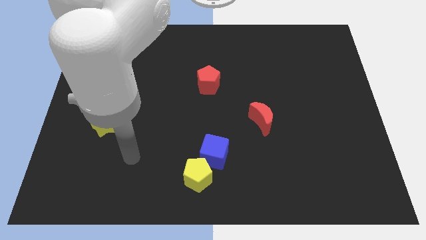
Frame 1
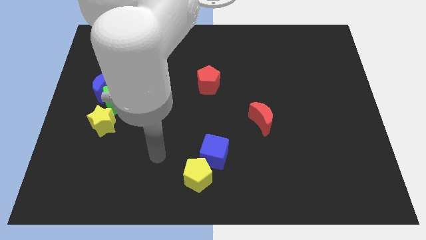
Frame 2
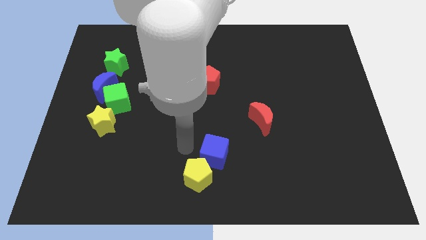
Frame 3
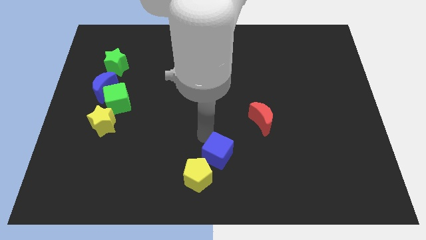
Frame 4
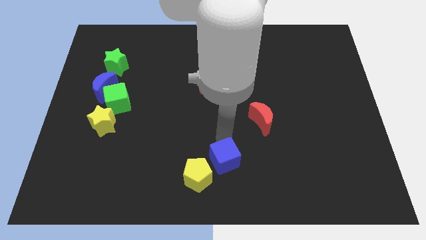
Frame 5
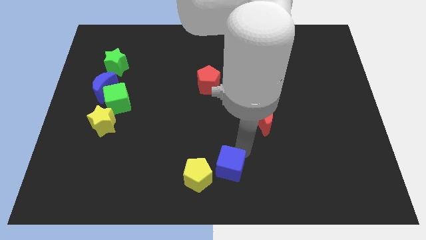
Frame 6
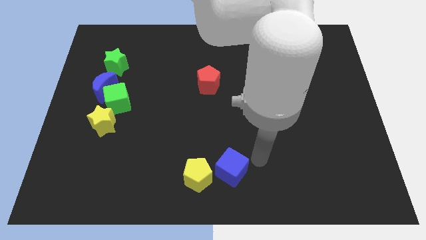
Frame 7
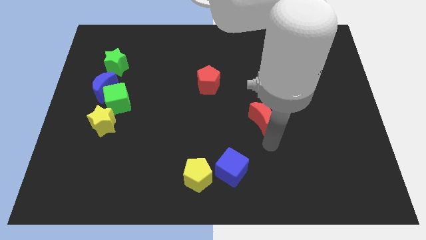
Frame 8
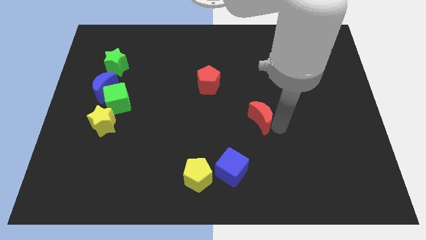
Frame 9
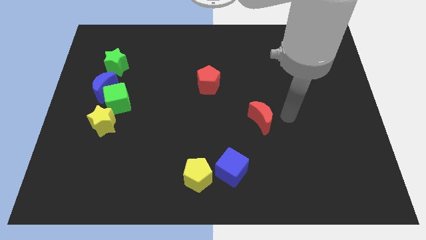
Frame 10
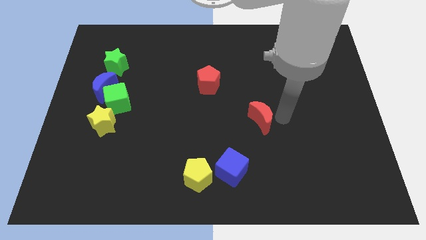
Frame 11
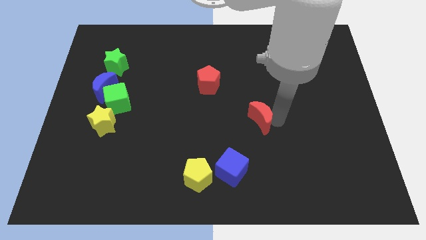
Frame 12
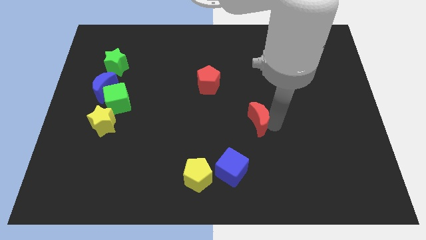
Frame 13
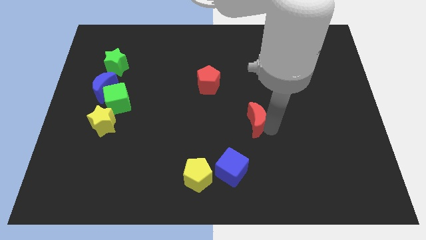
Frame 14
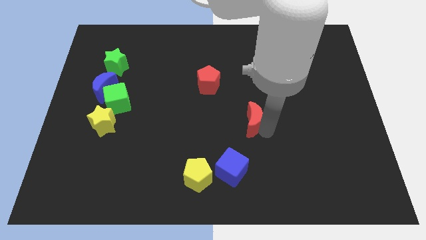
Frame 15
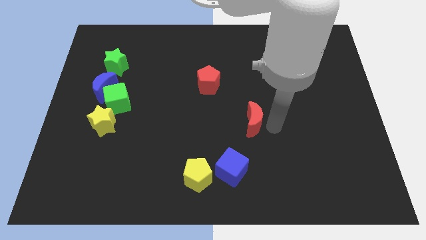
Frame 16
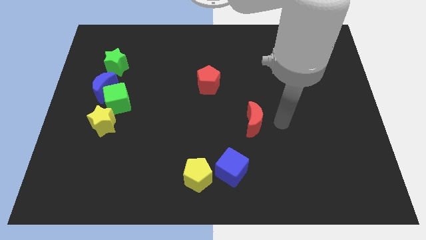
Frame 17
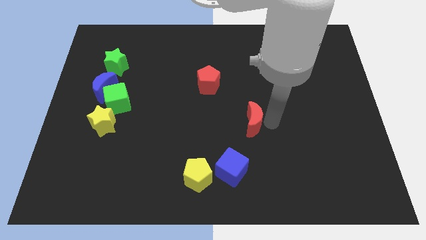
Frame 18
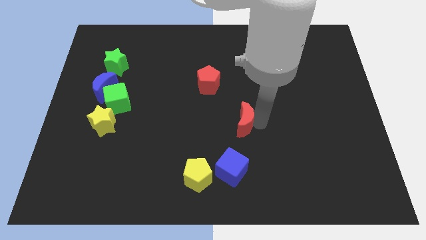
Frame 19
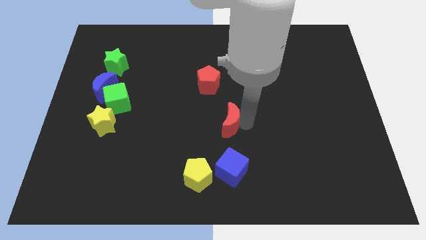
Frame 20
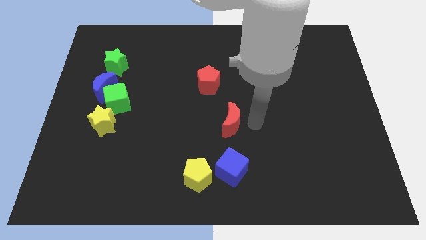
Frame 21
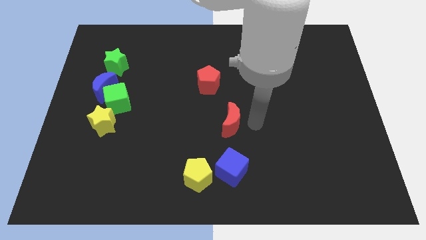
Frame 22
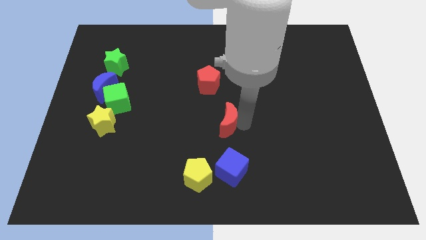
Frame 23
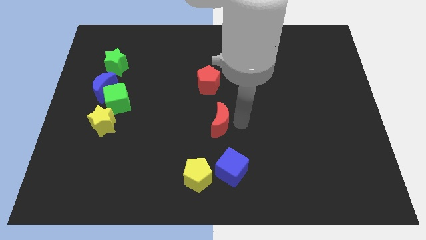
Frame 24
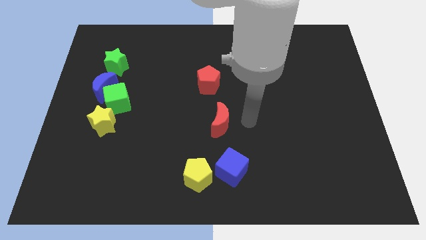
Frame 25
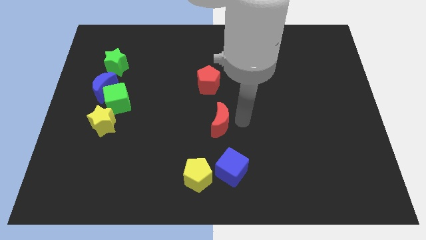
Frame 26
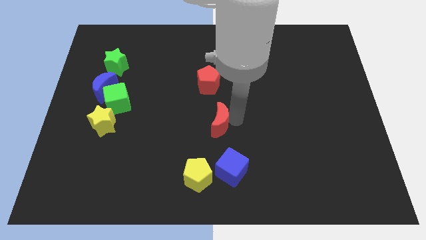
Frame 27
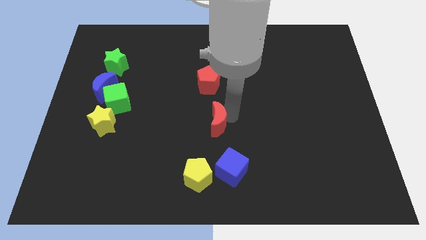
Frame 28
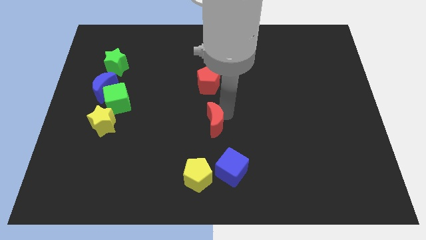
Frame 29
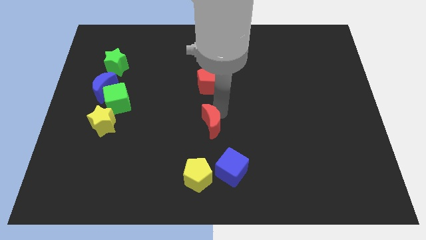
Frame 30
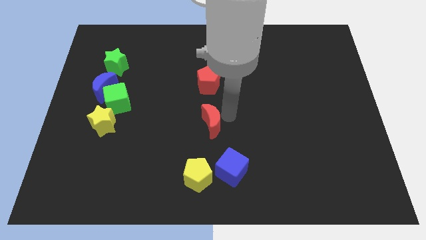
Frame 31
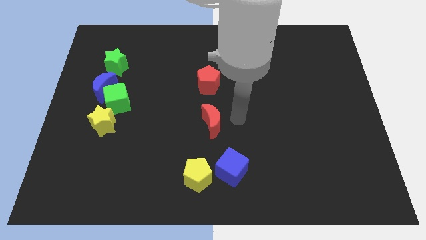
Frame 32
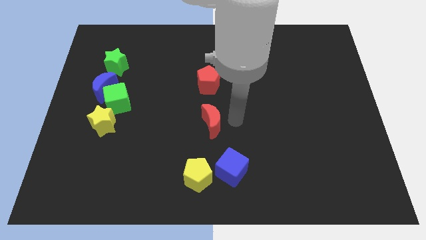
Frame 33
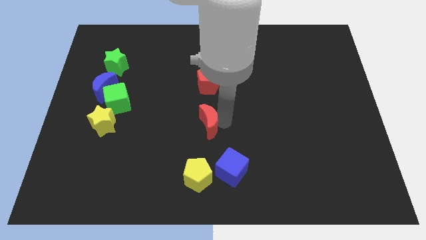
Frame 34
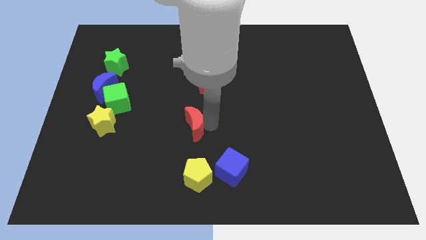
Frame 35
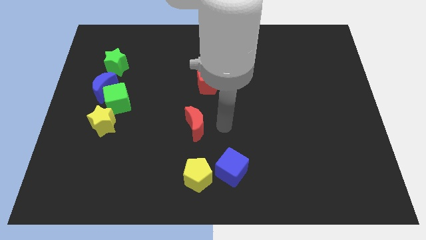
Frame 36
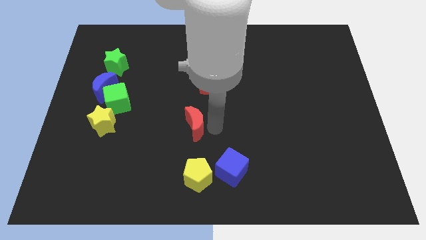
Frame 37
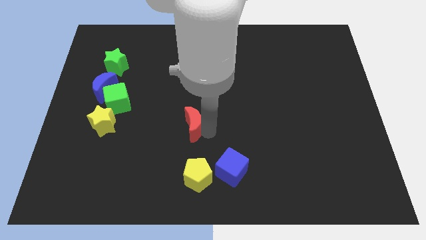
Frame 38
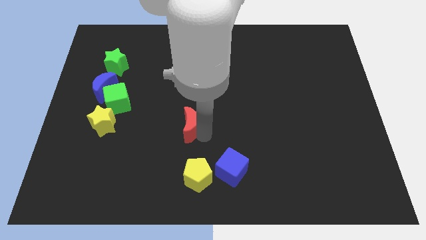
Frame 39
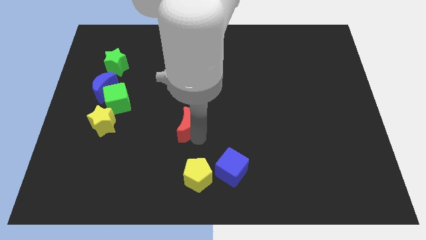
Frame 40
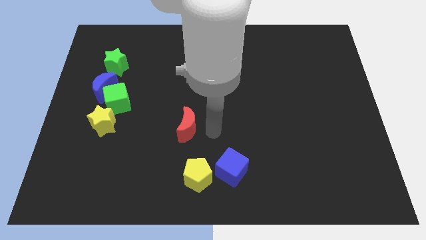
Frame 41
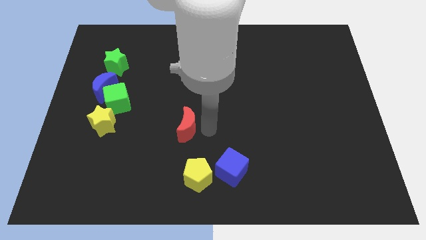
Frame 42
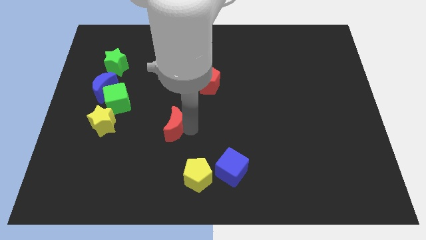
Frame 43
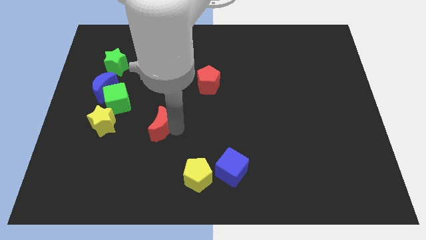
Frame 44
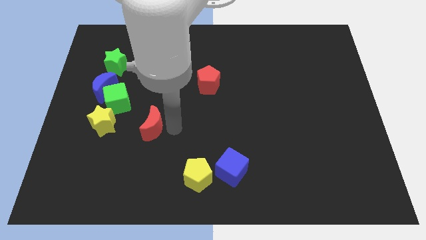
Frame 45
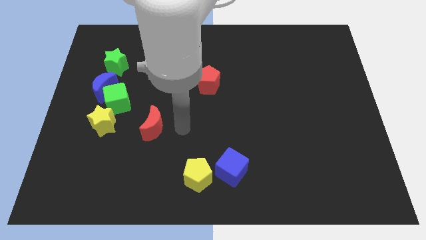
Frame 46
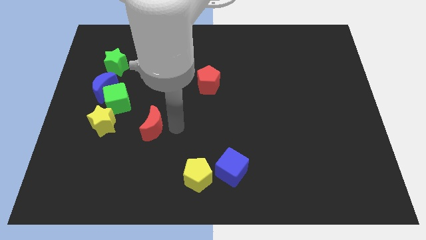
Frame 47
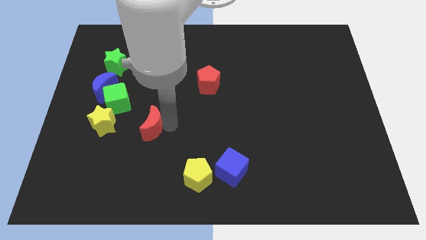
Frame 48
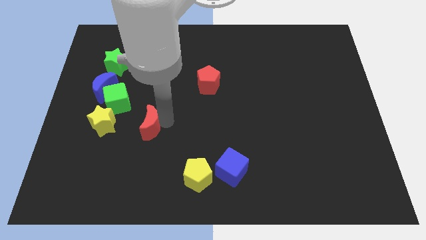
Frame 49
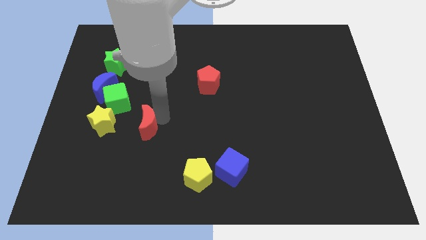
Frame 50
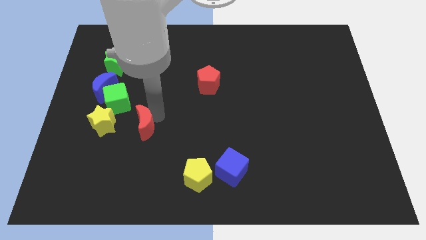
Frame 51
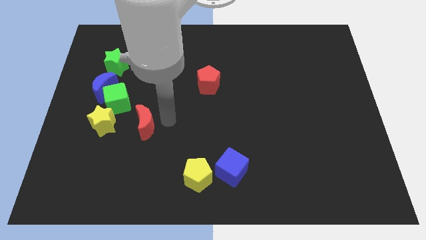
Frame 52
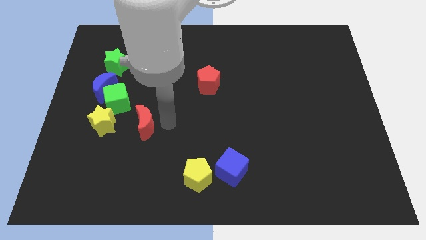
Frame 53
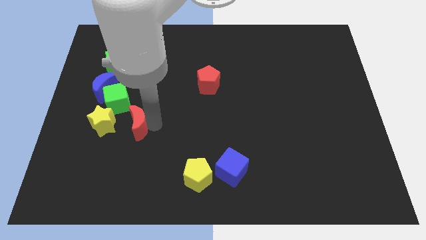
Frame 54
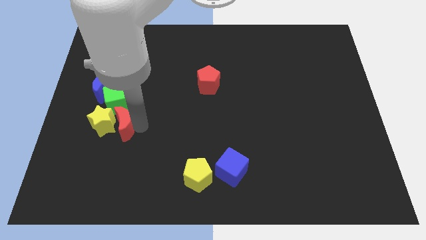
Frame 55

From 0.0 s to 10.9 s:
push the red moon next to the yellow star
